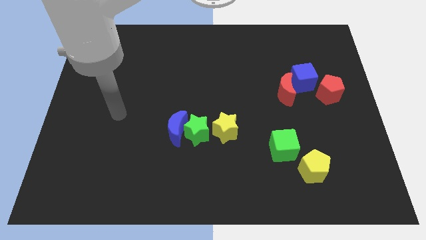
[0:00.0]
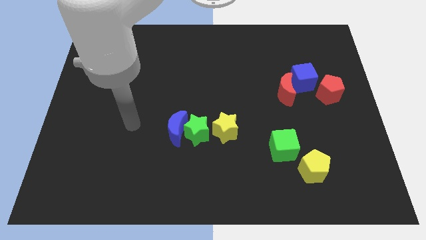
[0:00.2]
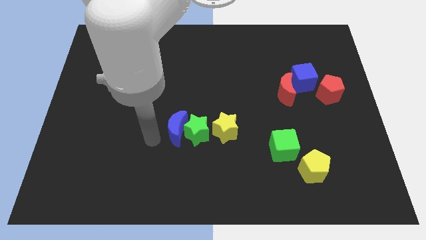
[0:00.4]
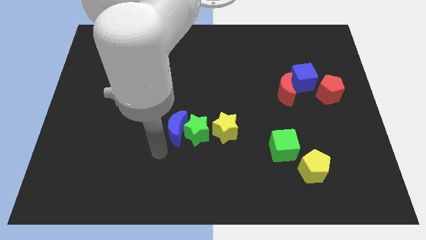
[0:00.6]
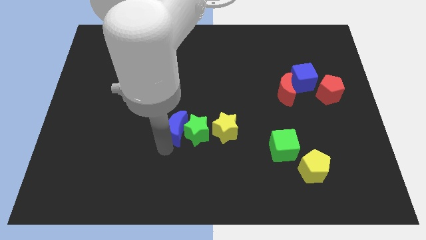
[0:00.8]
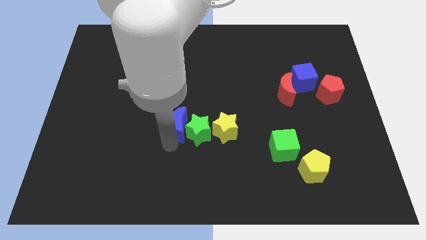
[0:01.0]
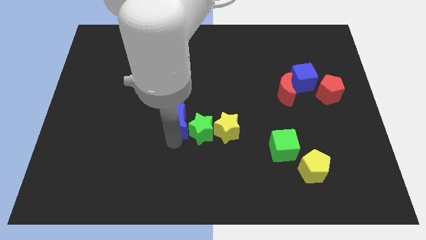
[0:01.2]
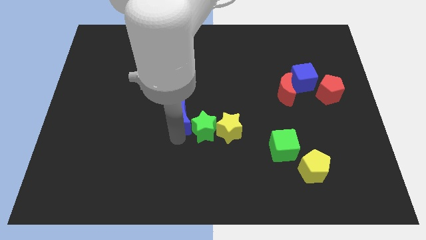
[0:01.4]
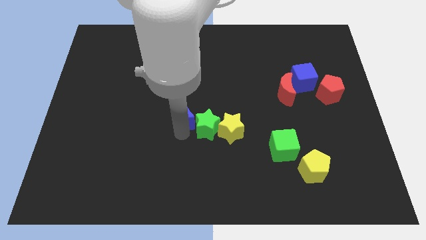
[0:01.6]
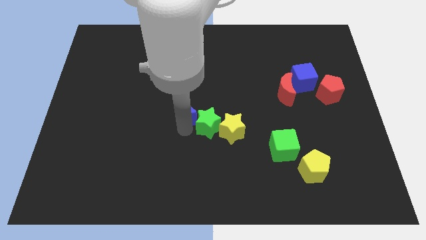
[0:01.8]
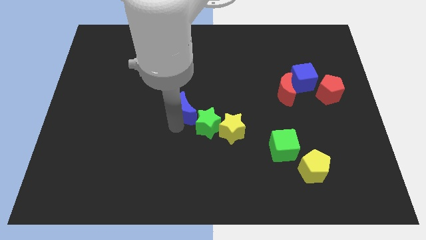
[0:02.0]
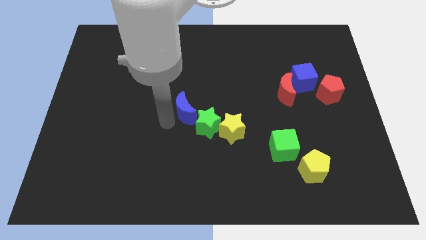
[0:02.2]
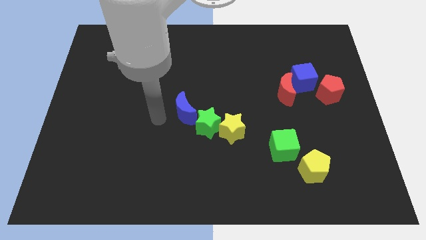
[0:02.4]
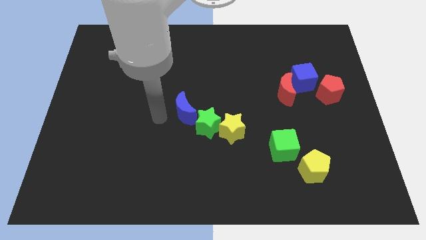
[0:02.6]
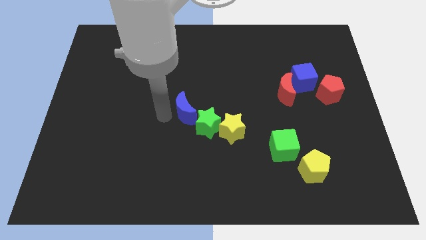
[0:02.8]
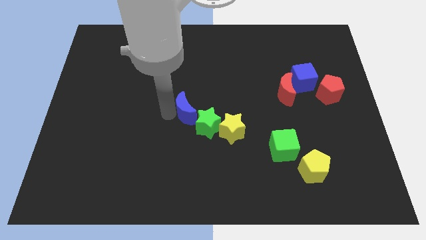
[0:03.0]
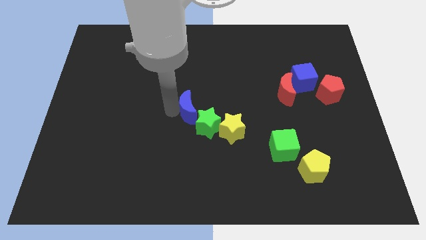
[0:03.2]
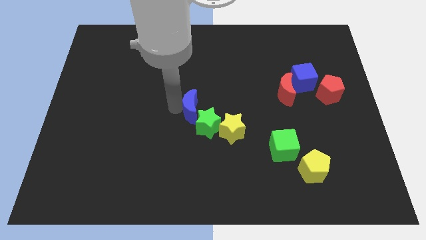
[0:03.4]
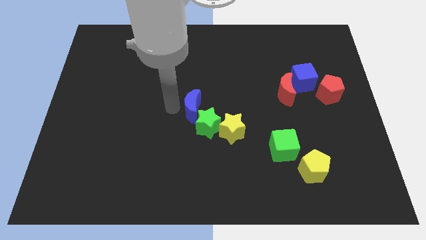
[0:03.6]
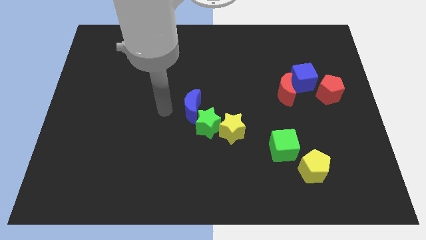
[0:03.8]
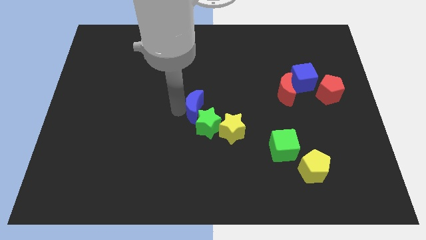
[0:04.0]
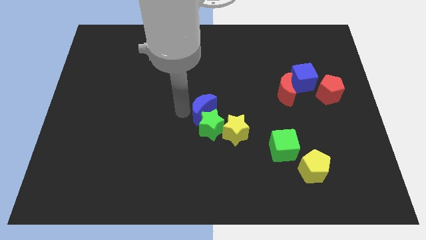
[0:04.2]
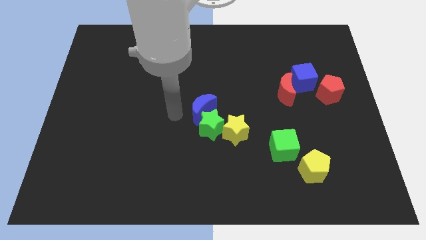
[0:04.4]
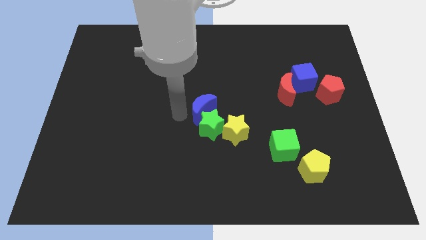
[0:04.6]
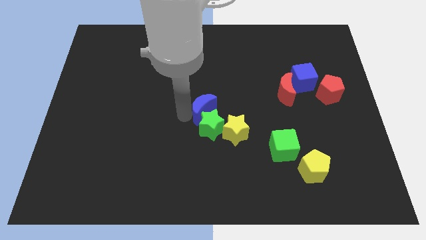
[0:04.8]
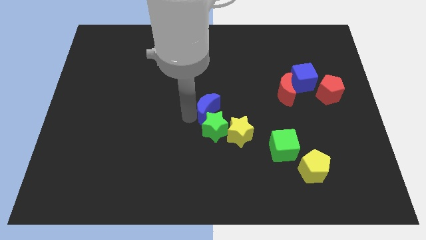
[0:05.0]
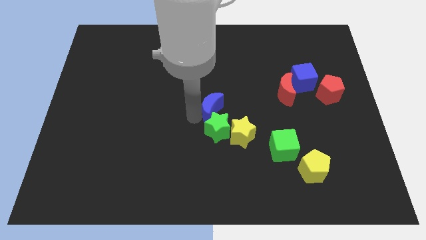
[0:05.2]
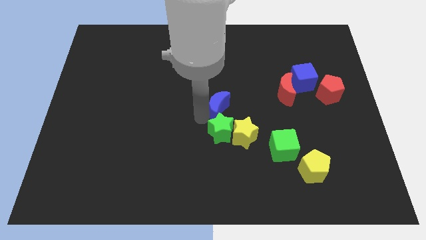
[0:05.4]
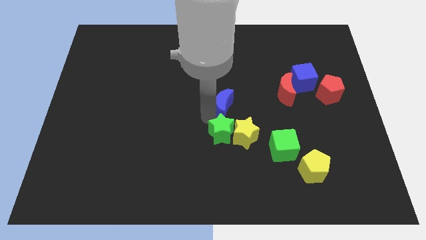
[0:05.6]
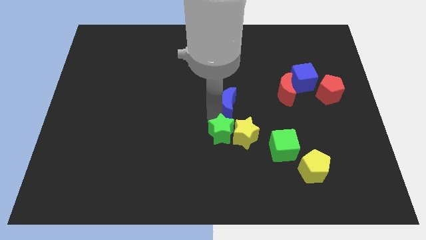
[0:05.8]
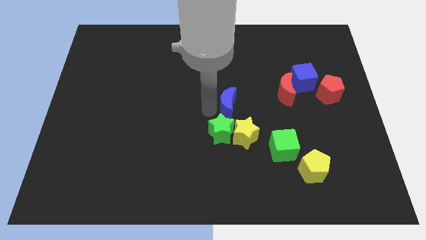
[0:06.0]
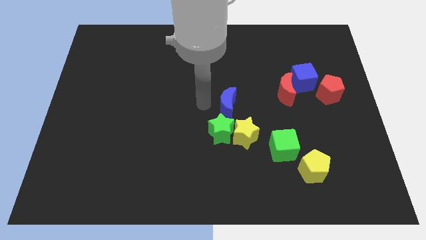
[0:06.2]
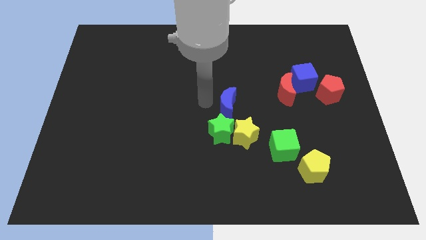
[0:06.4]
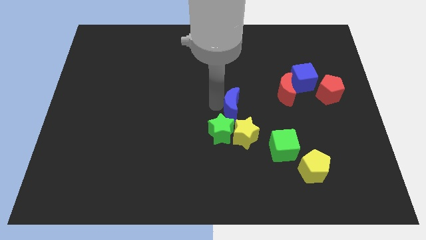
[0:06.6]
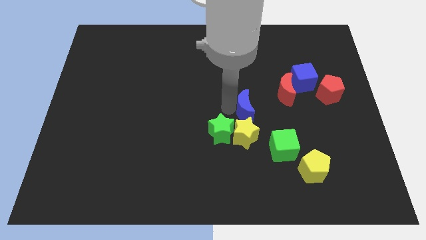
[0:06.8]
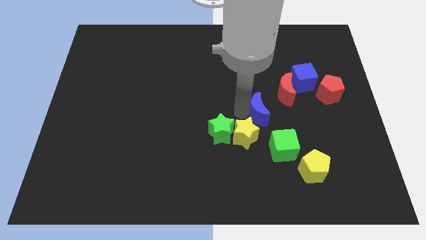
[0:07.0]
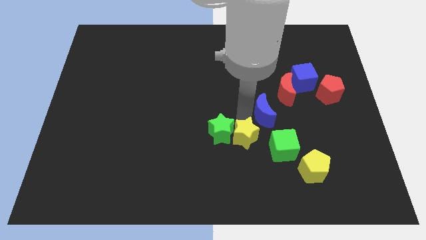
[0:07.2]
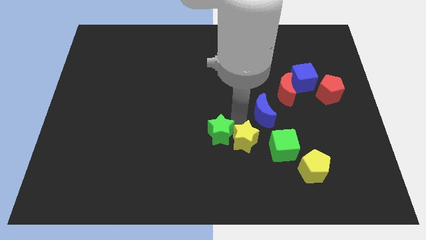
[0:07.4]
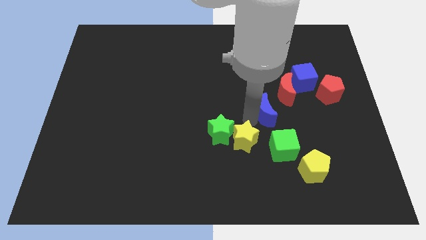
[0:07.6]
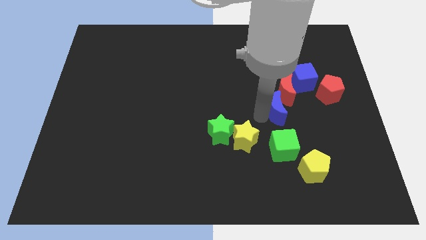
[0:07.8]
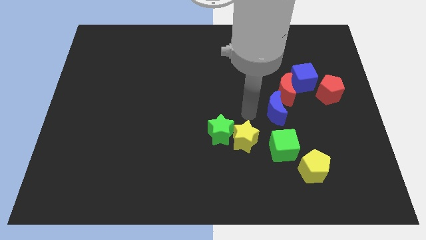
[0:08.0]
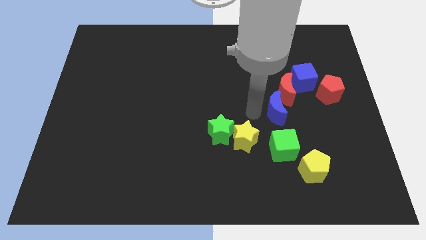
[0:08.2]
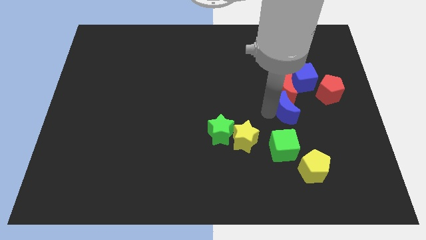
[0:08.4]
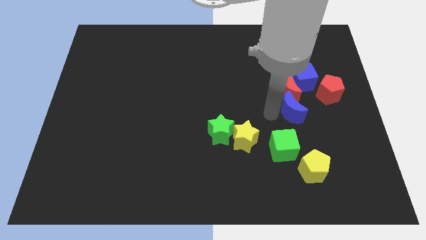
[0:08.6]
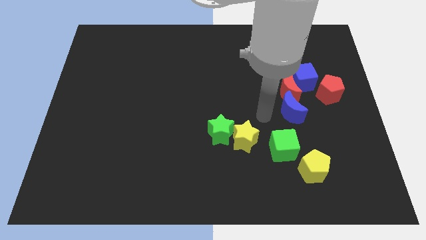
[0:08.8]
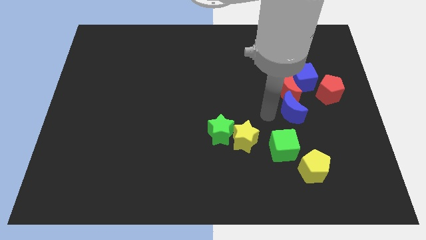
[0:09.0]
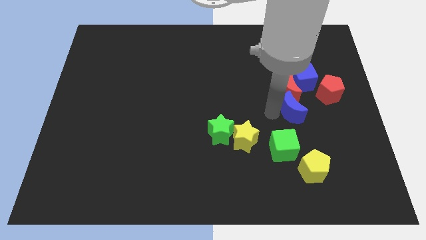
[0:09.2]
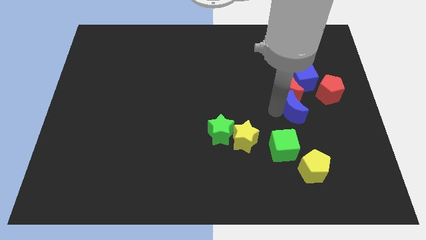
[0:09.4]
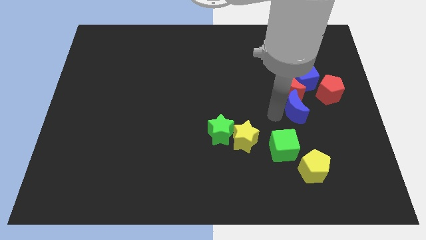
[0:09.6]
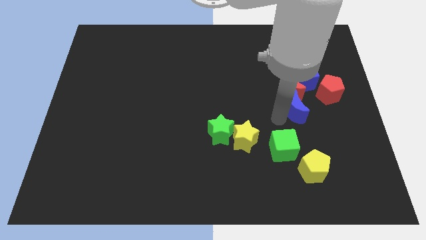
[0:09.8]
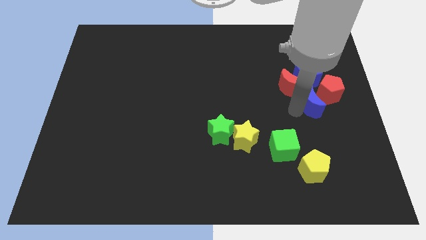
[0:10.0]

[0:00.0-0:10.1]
push the blue moon next to the red pentagon

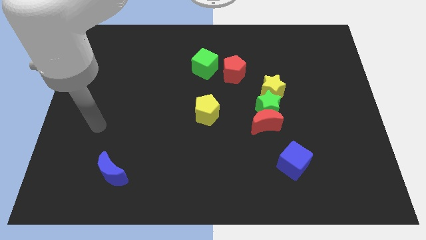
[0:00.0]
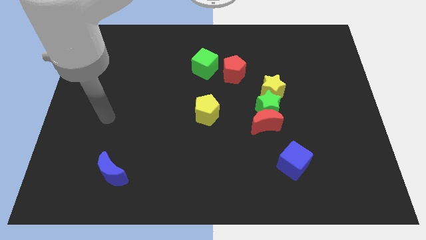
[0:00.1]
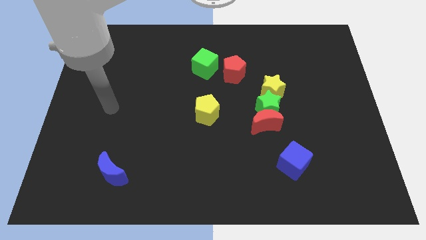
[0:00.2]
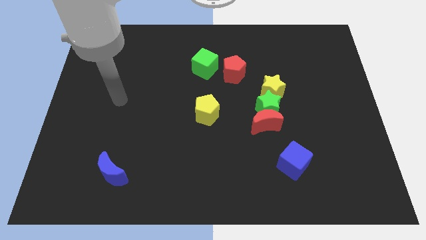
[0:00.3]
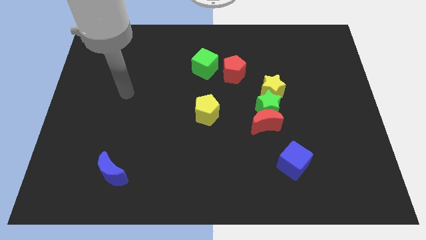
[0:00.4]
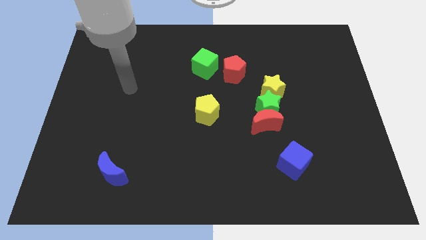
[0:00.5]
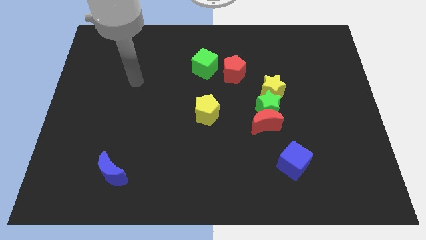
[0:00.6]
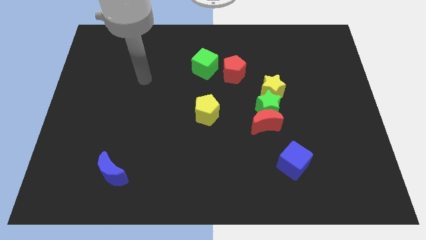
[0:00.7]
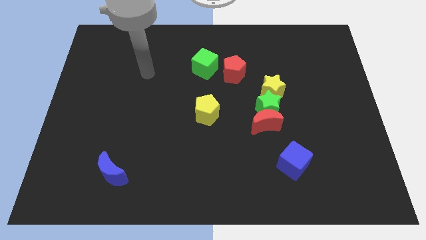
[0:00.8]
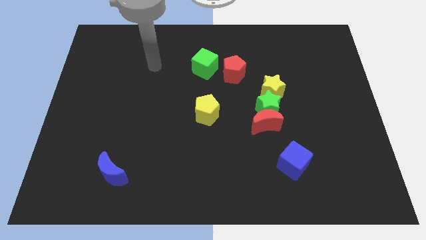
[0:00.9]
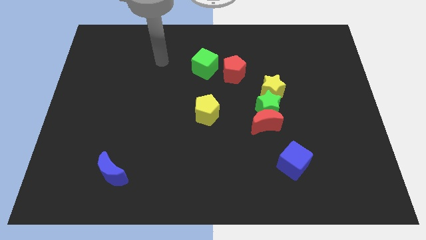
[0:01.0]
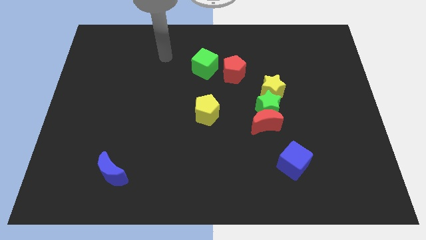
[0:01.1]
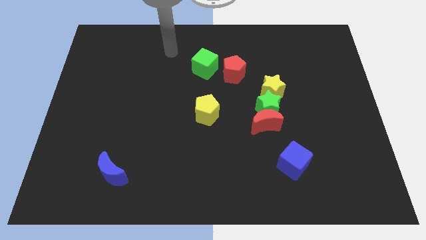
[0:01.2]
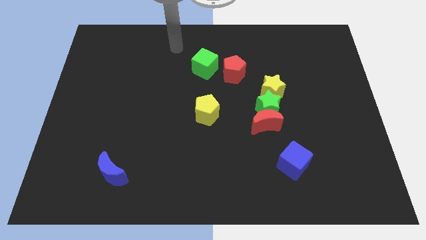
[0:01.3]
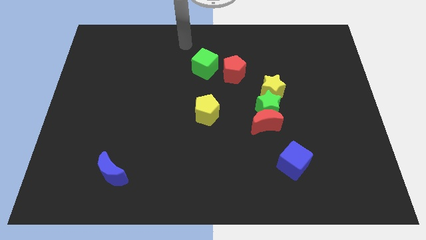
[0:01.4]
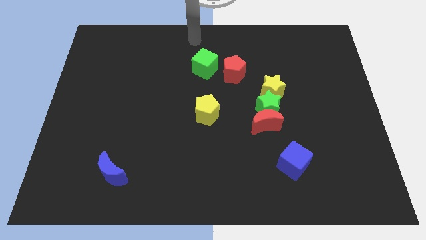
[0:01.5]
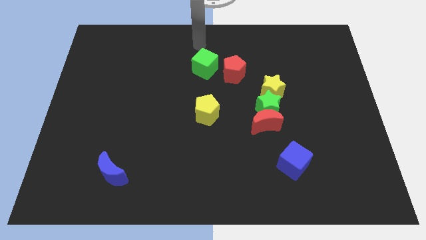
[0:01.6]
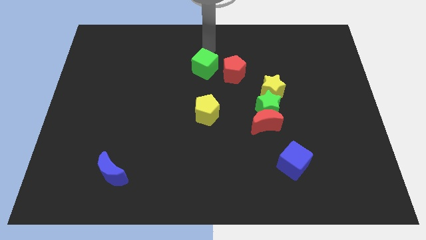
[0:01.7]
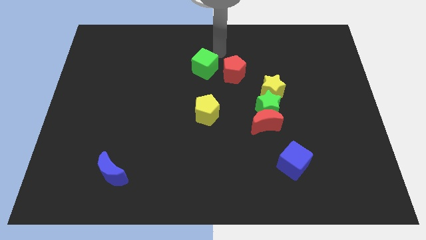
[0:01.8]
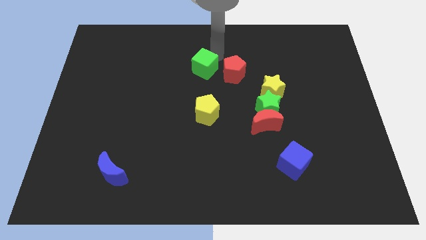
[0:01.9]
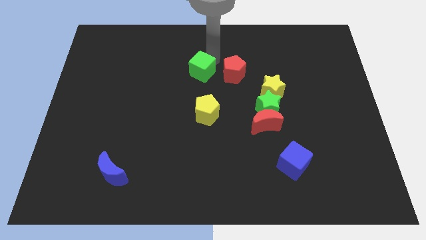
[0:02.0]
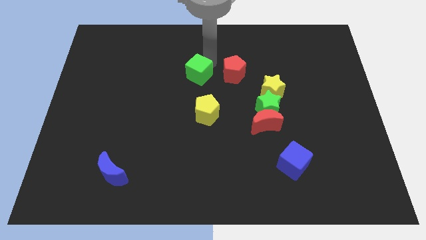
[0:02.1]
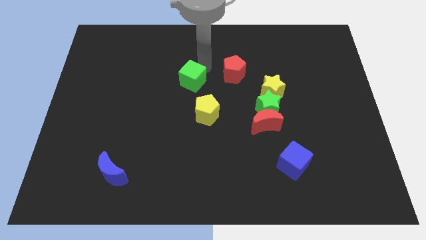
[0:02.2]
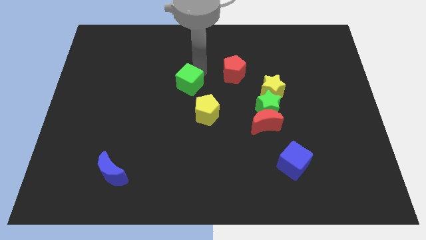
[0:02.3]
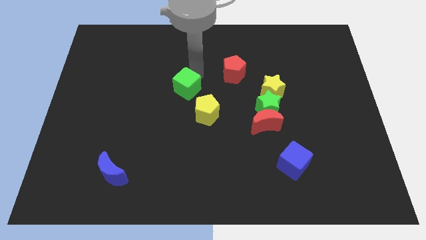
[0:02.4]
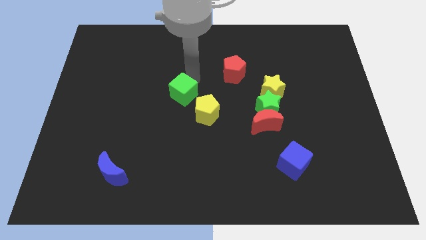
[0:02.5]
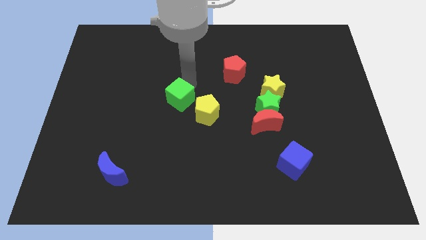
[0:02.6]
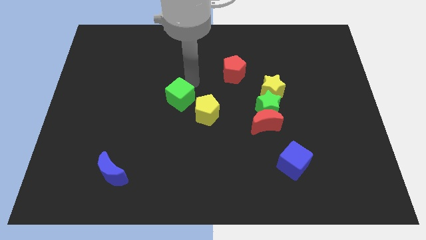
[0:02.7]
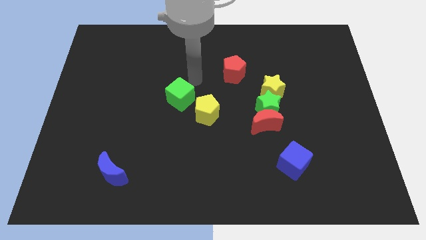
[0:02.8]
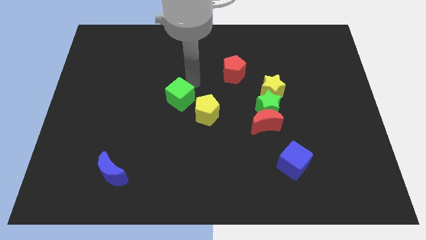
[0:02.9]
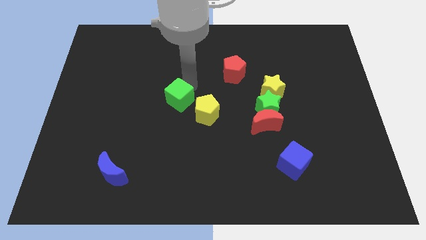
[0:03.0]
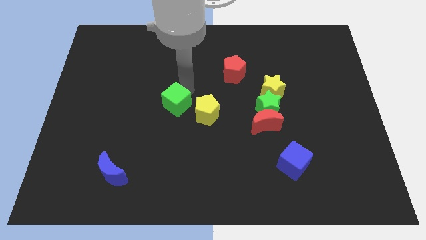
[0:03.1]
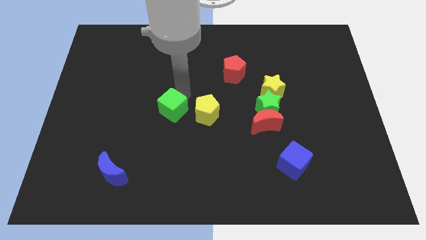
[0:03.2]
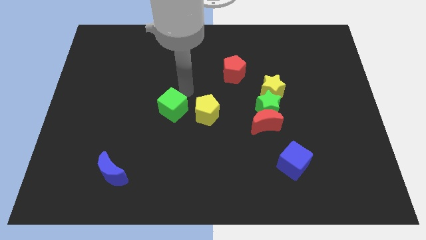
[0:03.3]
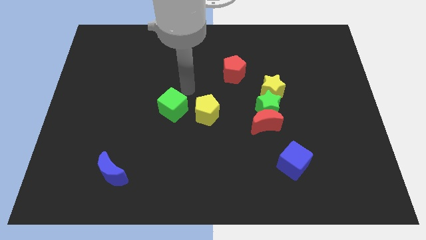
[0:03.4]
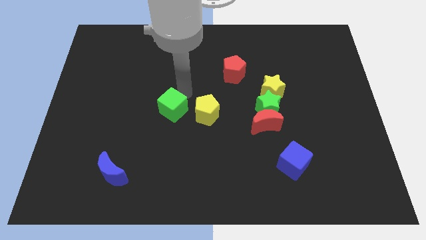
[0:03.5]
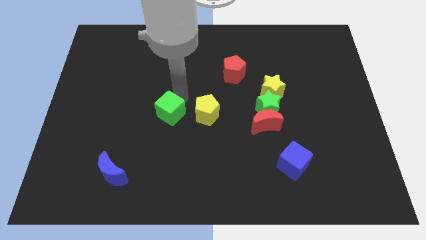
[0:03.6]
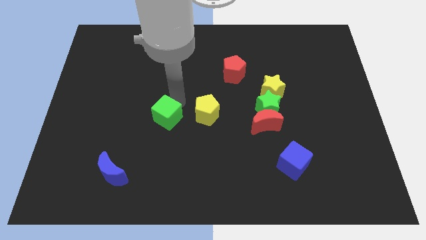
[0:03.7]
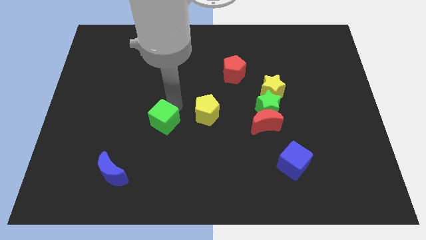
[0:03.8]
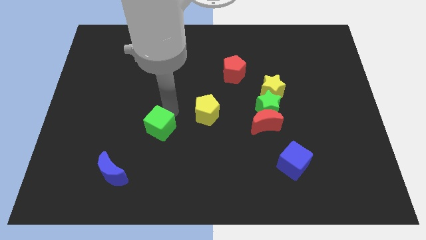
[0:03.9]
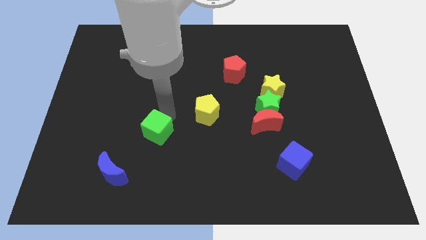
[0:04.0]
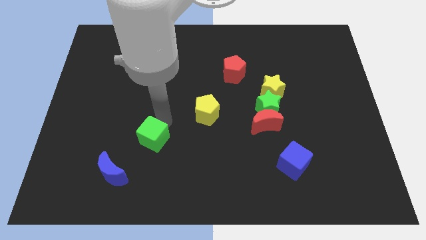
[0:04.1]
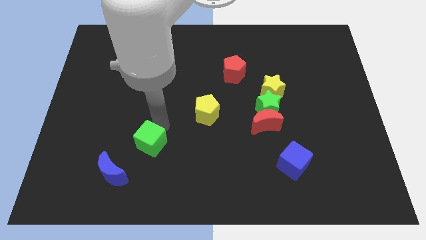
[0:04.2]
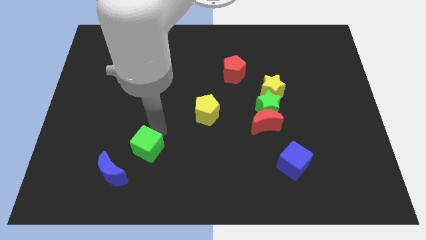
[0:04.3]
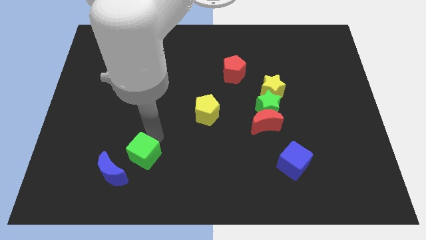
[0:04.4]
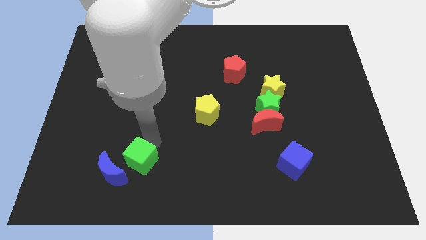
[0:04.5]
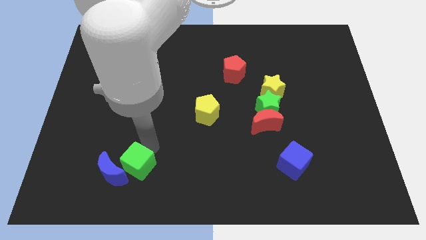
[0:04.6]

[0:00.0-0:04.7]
move the green cube next to the blue moon
